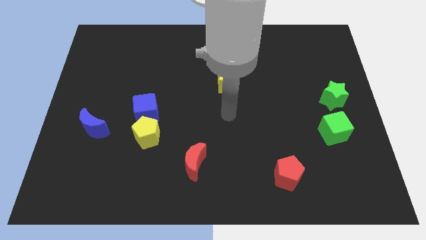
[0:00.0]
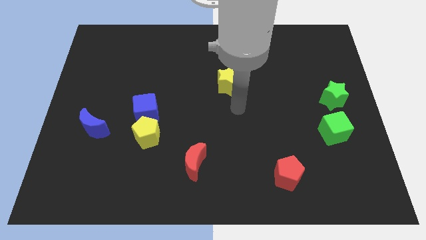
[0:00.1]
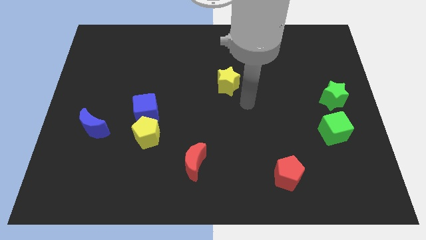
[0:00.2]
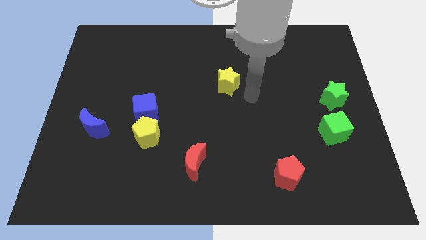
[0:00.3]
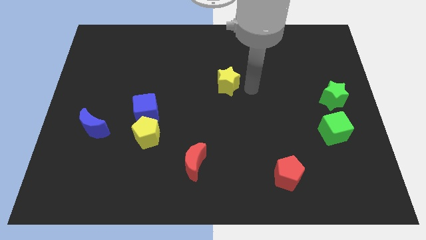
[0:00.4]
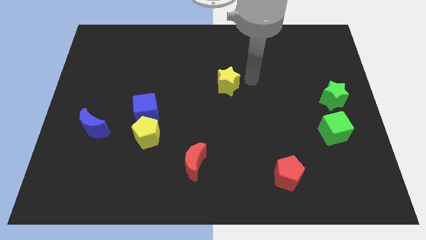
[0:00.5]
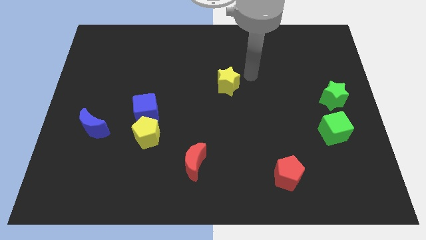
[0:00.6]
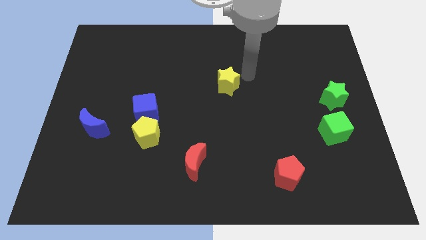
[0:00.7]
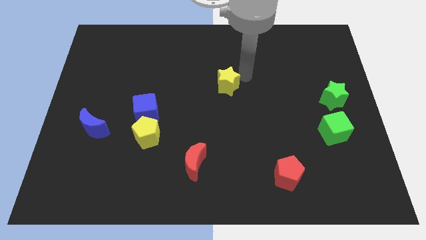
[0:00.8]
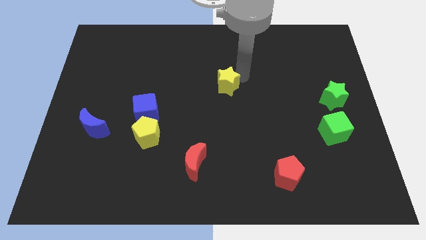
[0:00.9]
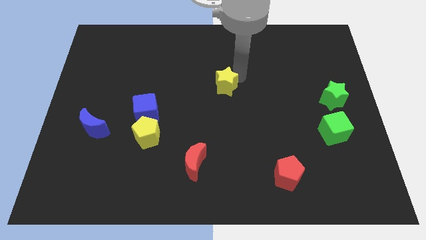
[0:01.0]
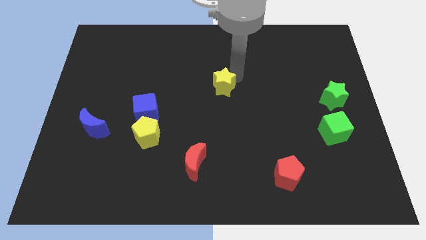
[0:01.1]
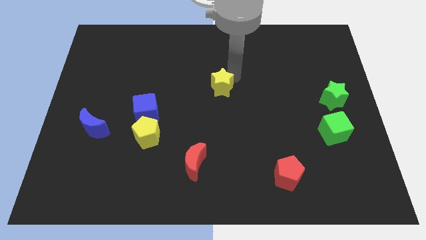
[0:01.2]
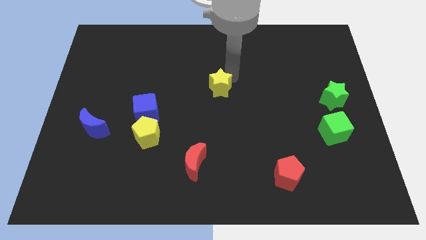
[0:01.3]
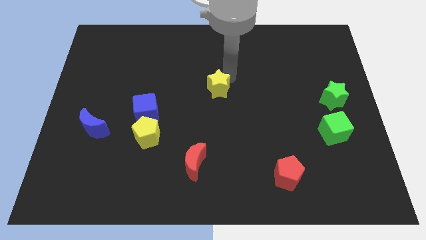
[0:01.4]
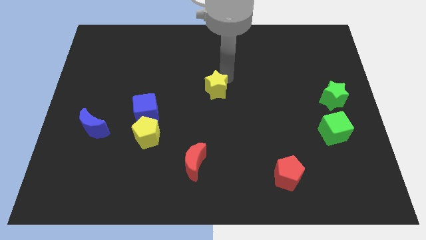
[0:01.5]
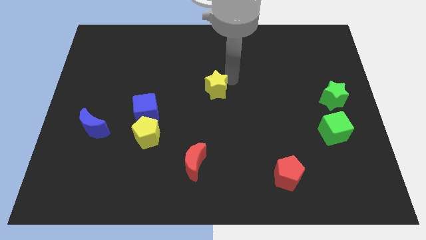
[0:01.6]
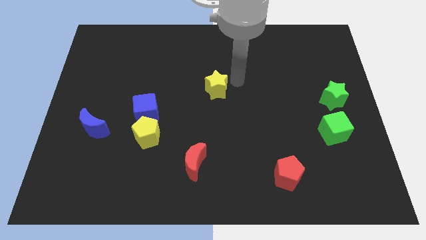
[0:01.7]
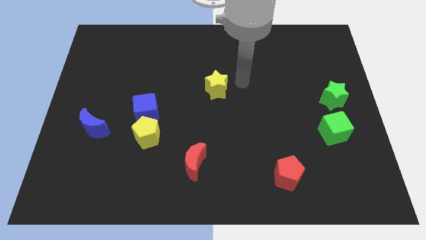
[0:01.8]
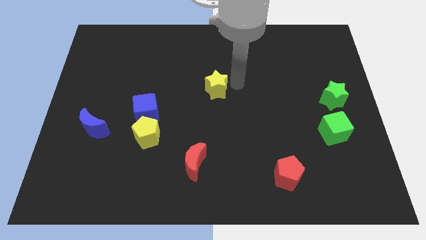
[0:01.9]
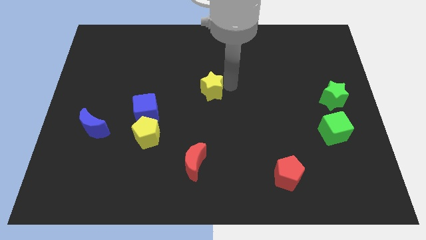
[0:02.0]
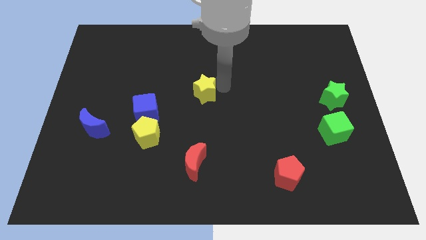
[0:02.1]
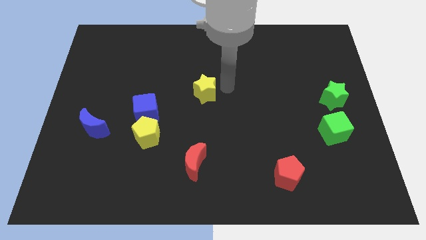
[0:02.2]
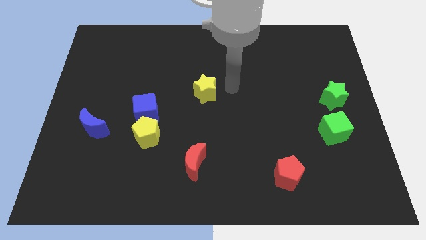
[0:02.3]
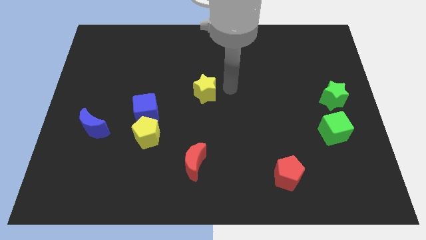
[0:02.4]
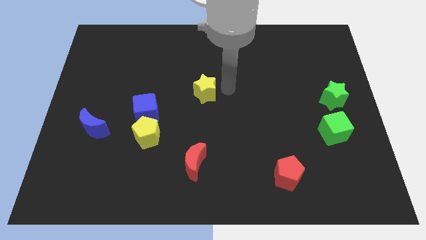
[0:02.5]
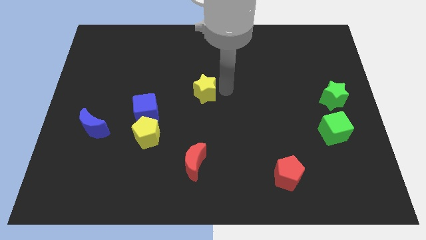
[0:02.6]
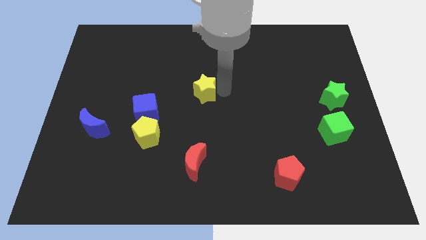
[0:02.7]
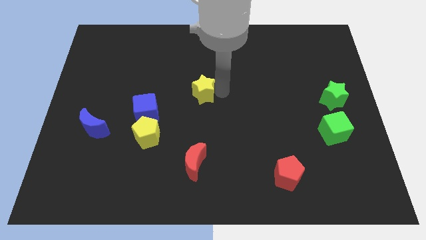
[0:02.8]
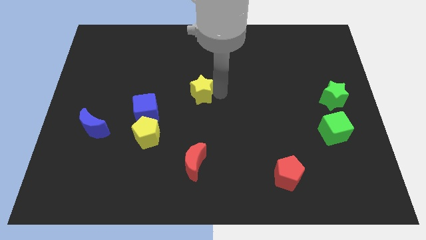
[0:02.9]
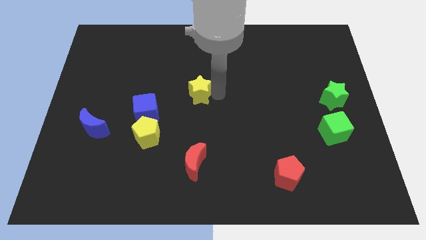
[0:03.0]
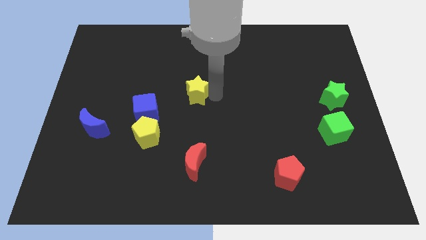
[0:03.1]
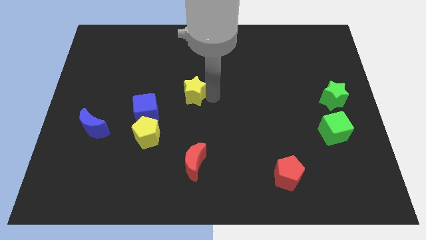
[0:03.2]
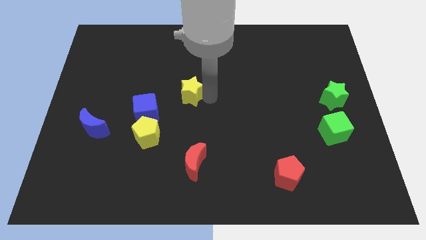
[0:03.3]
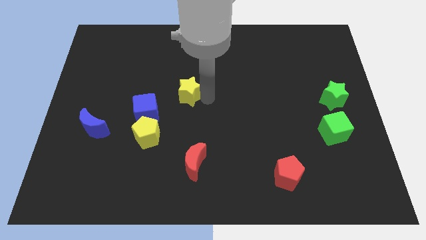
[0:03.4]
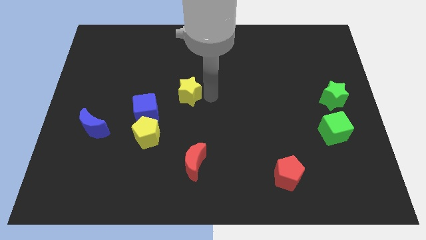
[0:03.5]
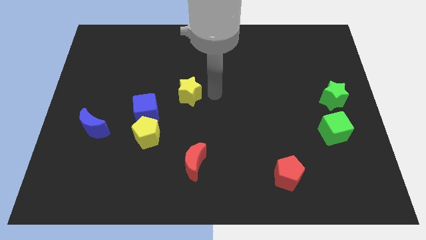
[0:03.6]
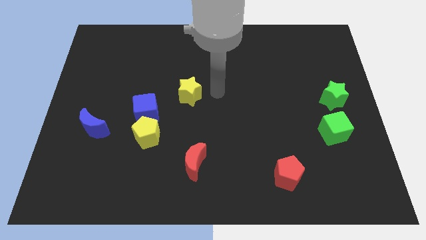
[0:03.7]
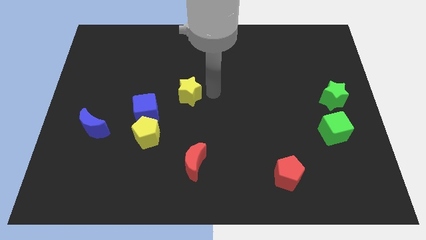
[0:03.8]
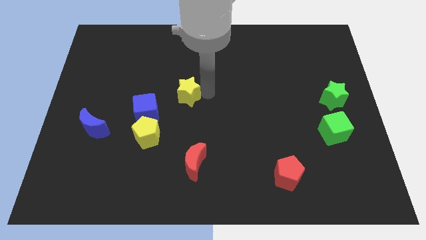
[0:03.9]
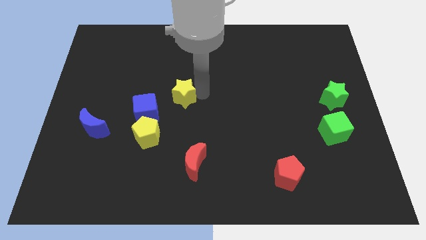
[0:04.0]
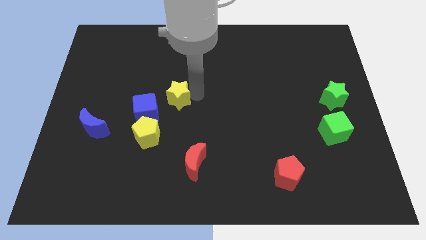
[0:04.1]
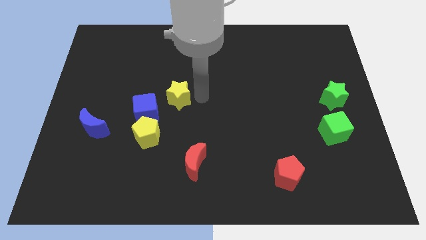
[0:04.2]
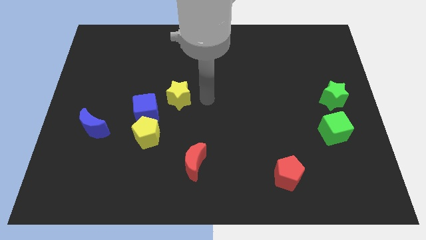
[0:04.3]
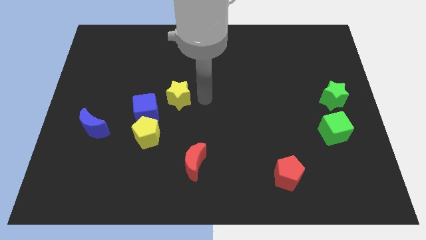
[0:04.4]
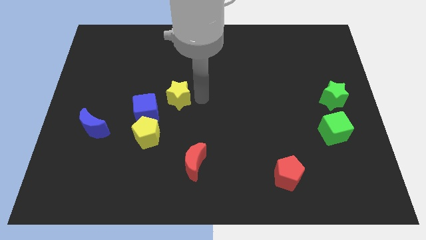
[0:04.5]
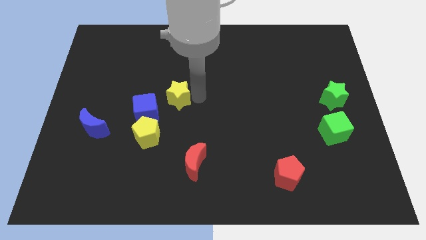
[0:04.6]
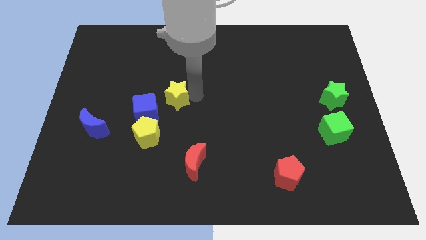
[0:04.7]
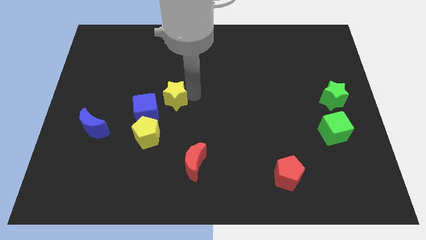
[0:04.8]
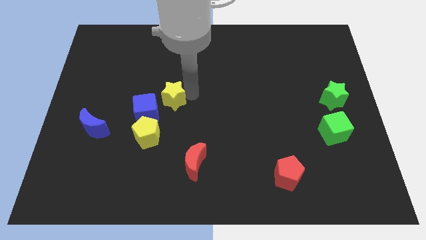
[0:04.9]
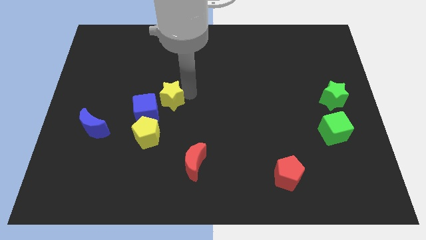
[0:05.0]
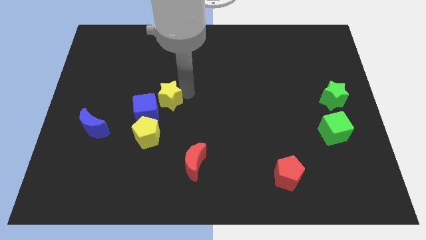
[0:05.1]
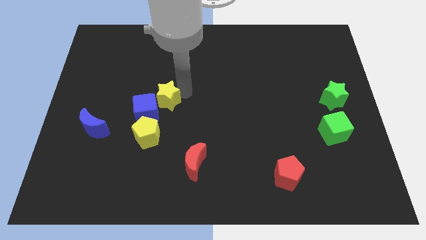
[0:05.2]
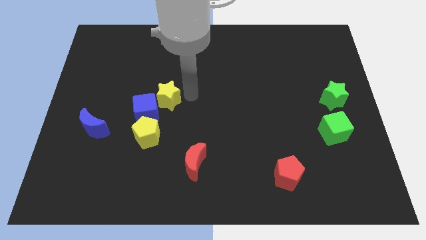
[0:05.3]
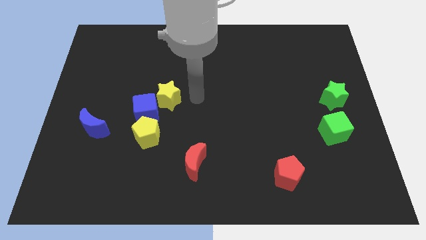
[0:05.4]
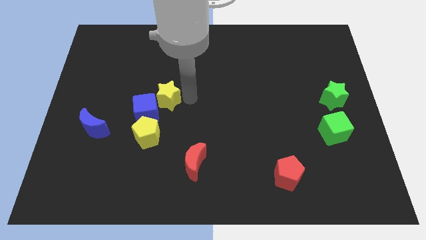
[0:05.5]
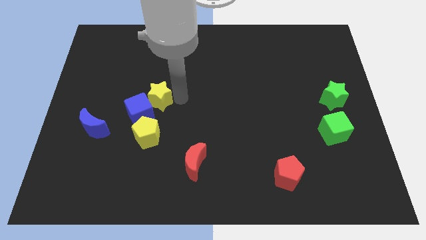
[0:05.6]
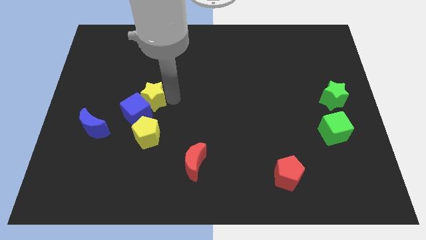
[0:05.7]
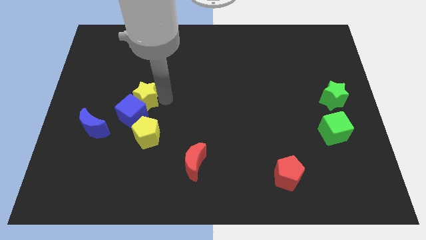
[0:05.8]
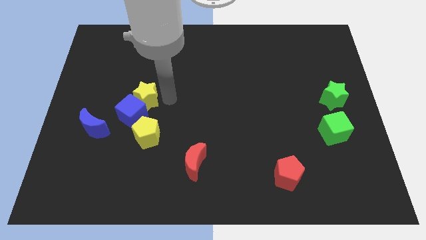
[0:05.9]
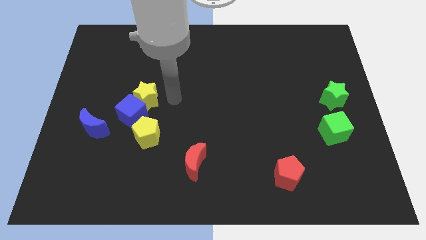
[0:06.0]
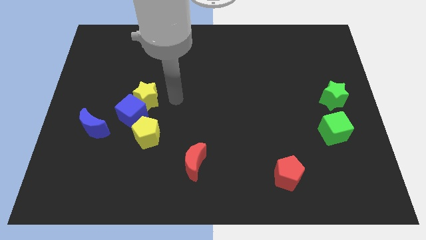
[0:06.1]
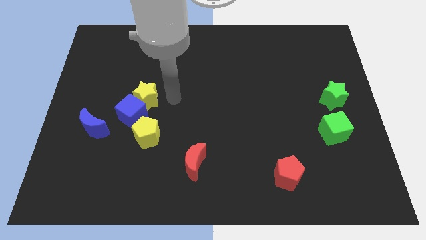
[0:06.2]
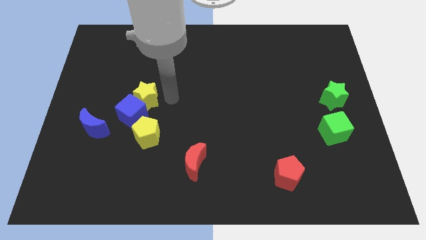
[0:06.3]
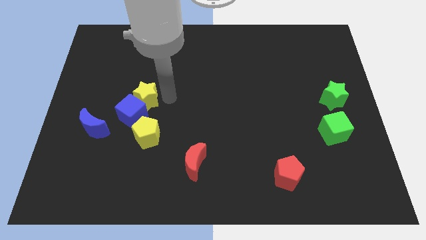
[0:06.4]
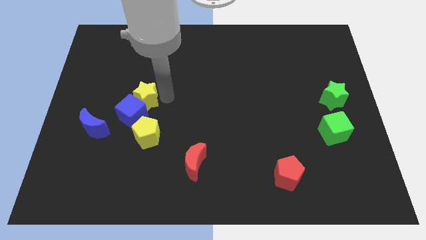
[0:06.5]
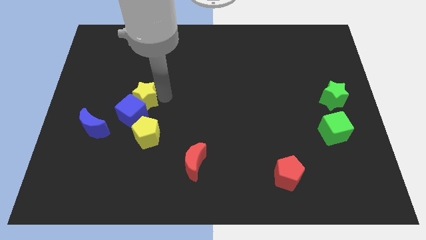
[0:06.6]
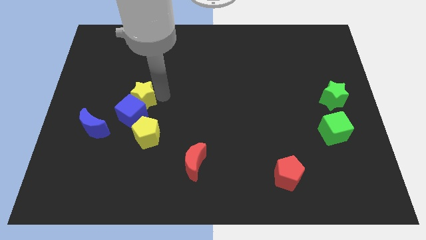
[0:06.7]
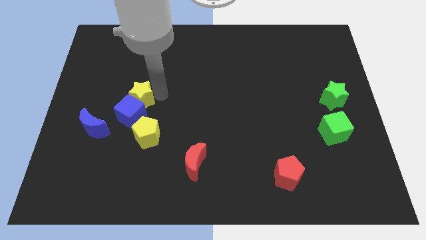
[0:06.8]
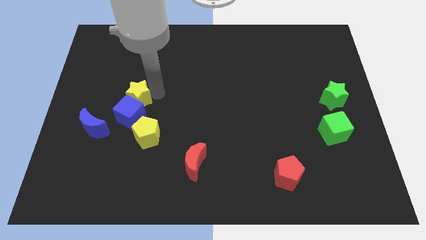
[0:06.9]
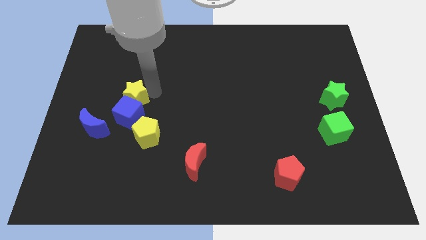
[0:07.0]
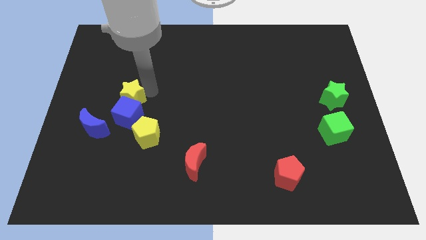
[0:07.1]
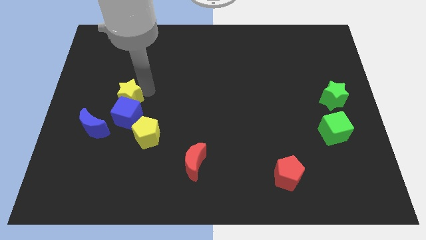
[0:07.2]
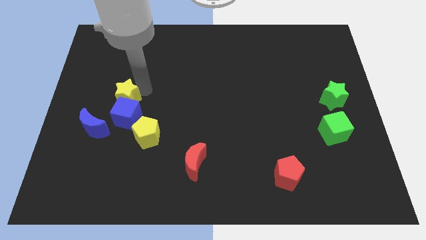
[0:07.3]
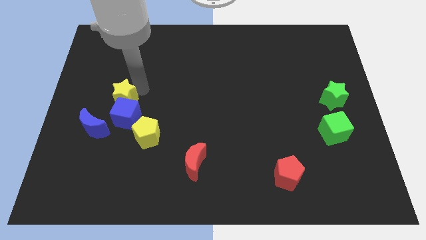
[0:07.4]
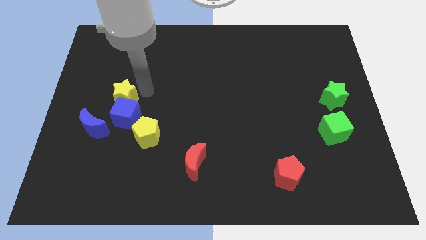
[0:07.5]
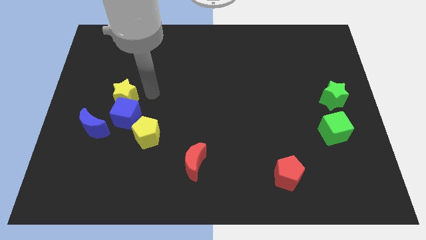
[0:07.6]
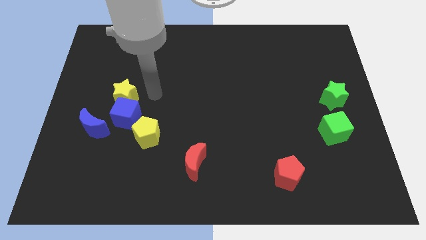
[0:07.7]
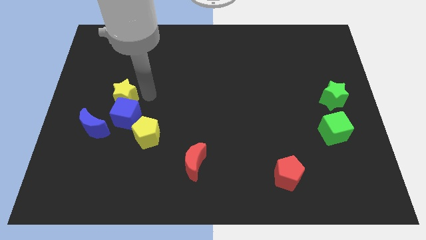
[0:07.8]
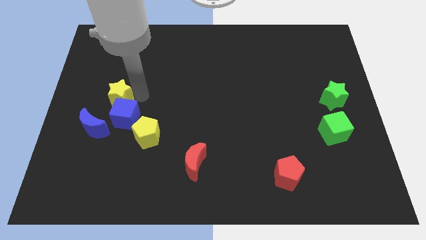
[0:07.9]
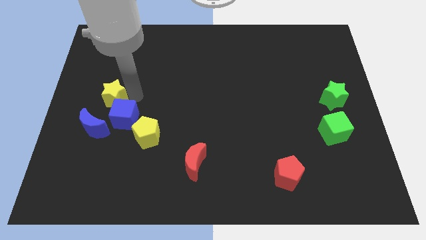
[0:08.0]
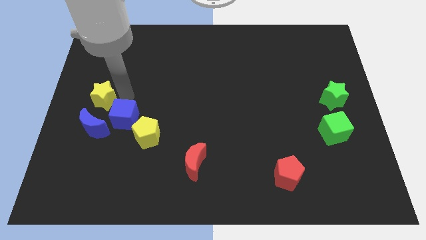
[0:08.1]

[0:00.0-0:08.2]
move the yellow star to the left side of the board
